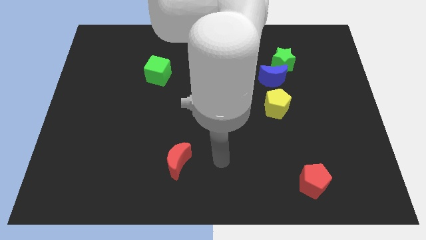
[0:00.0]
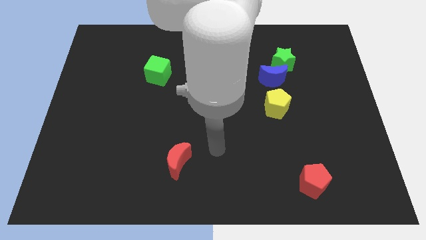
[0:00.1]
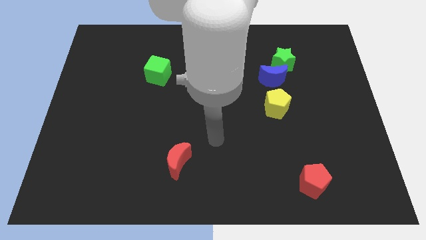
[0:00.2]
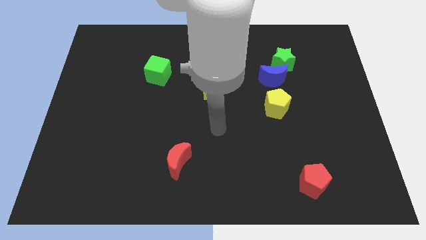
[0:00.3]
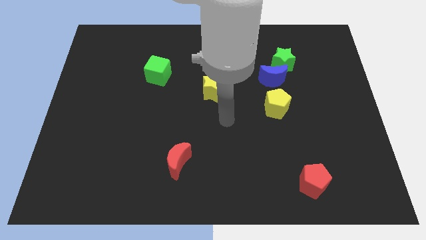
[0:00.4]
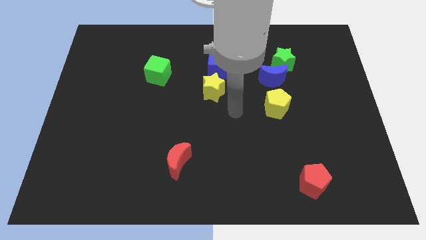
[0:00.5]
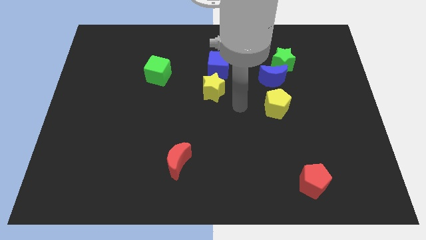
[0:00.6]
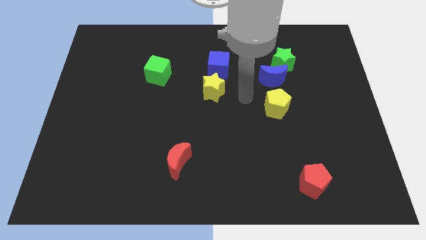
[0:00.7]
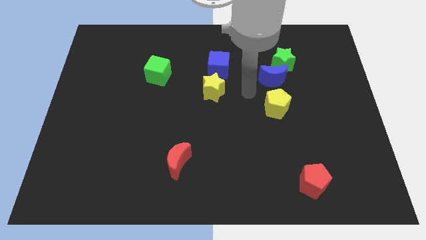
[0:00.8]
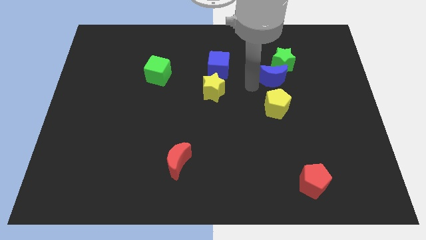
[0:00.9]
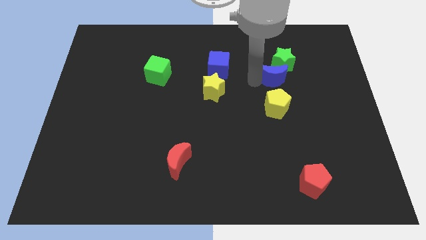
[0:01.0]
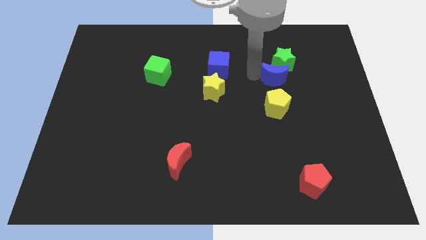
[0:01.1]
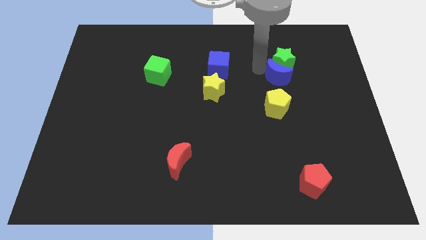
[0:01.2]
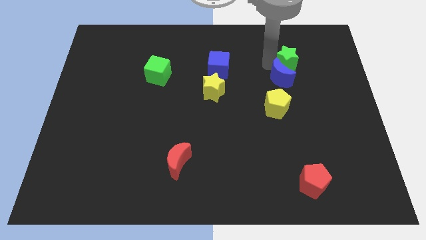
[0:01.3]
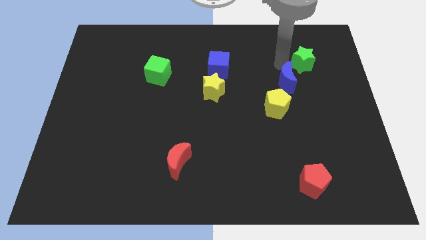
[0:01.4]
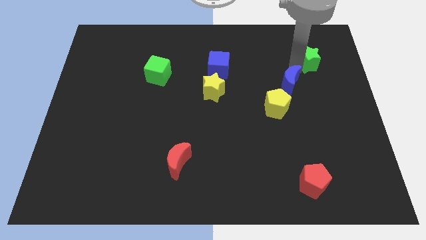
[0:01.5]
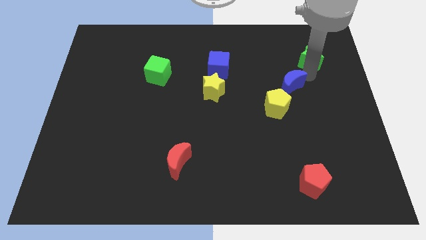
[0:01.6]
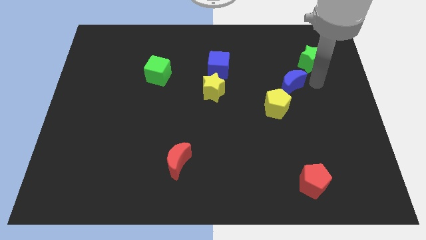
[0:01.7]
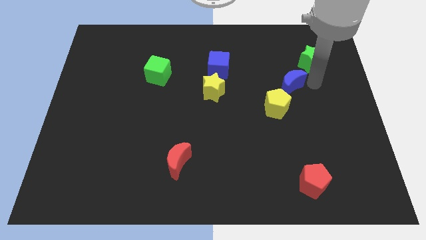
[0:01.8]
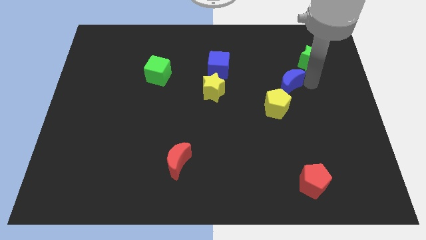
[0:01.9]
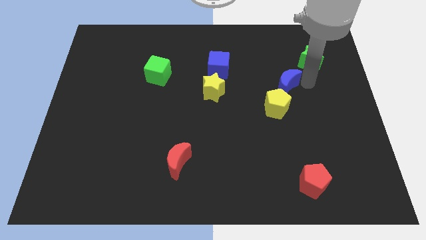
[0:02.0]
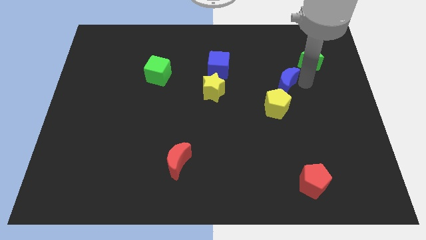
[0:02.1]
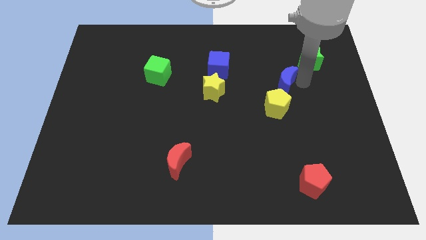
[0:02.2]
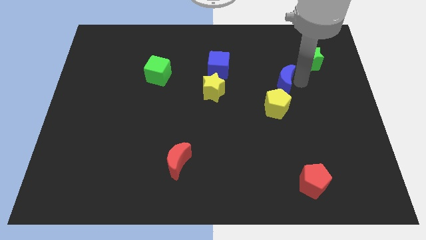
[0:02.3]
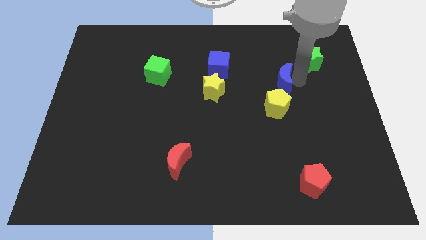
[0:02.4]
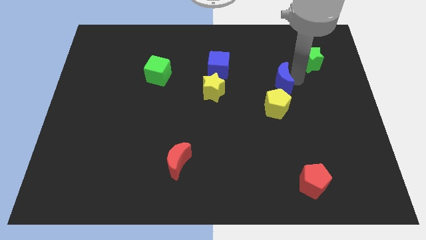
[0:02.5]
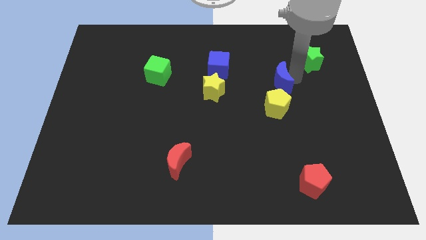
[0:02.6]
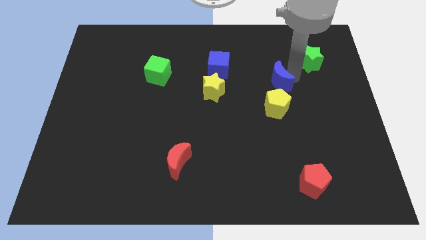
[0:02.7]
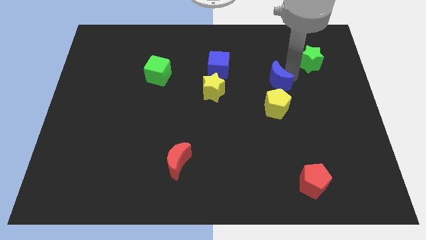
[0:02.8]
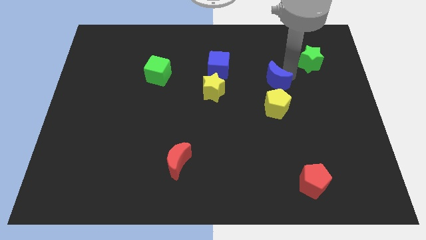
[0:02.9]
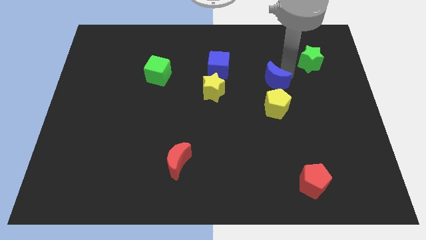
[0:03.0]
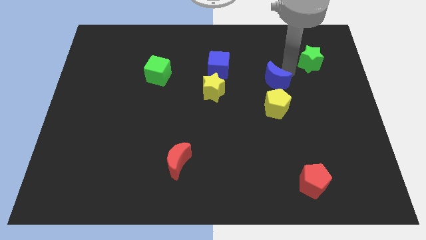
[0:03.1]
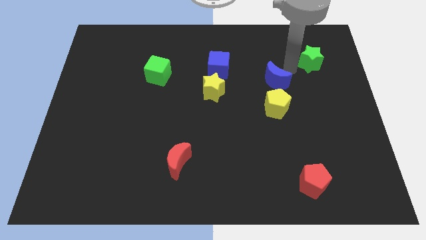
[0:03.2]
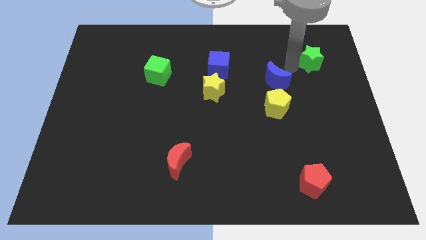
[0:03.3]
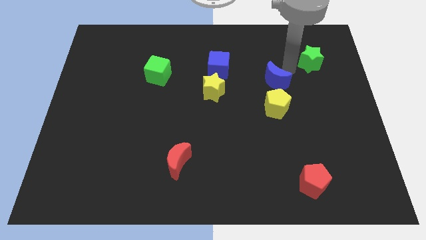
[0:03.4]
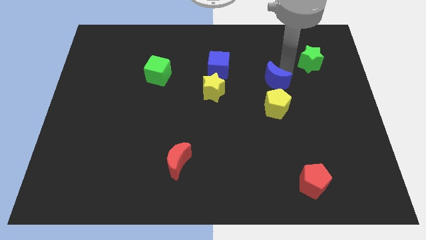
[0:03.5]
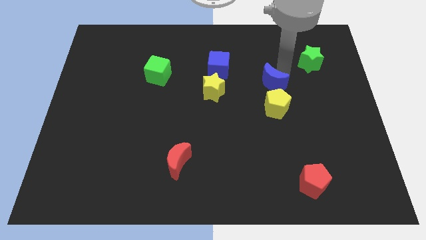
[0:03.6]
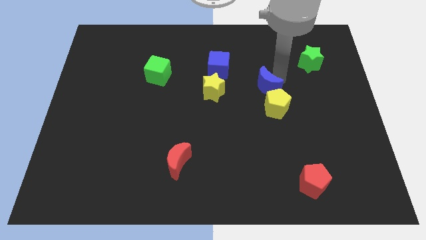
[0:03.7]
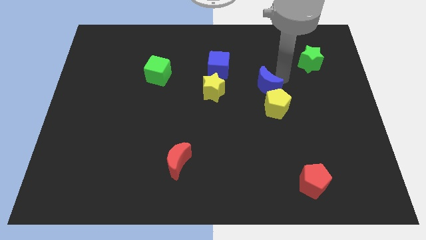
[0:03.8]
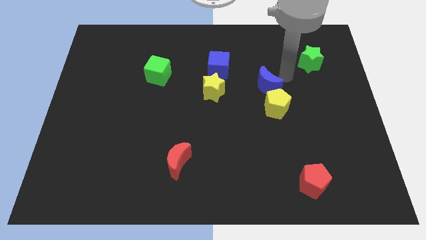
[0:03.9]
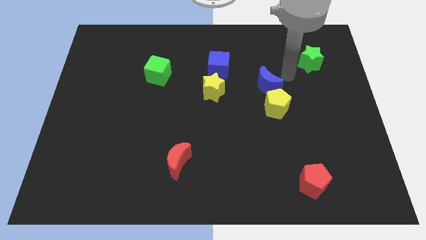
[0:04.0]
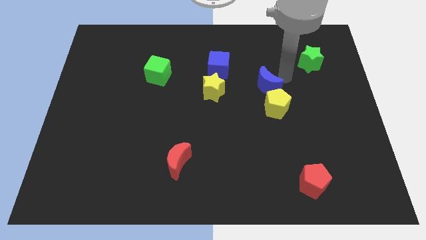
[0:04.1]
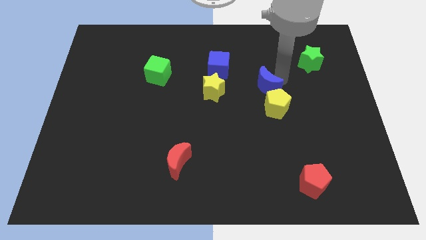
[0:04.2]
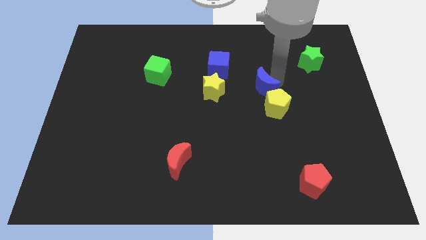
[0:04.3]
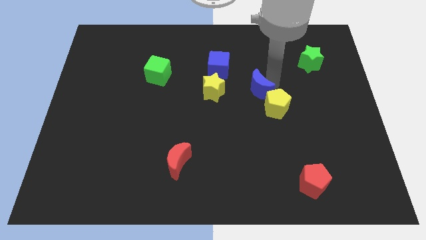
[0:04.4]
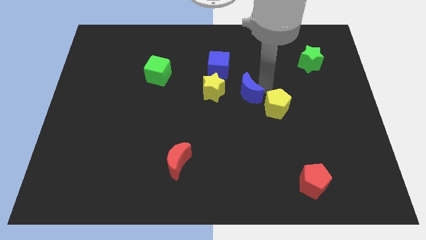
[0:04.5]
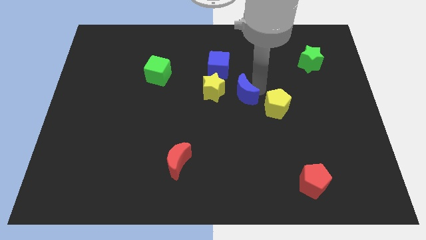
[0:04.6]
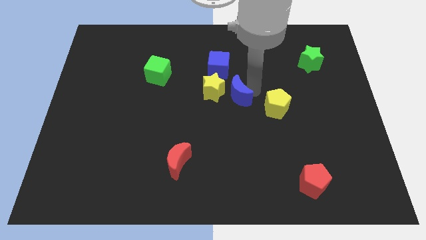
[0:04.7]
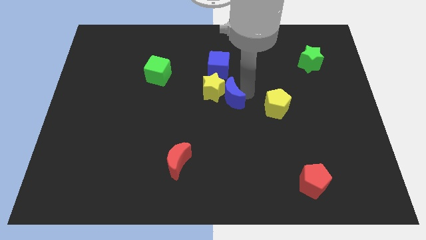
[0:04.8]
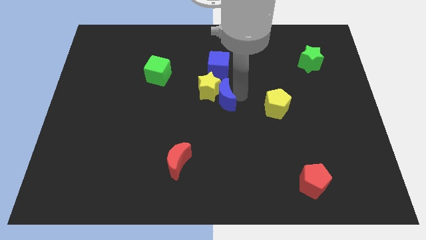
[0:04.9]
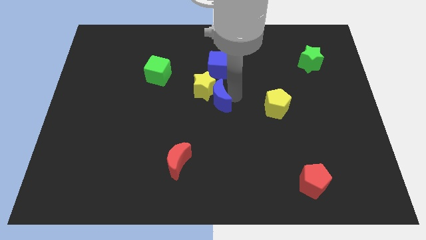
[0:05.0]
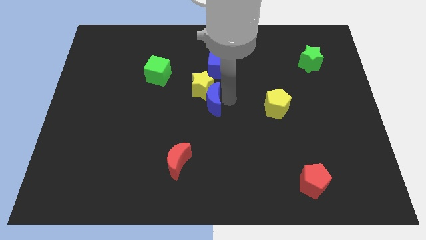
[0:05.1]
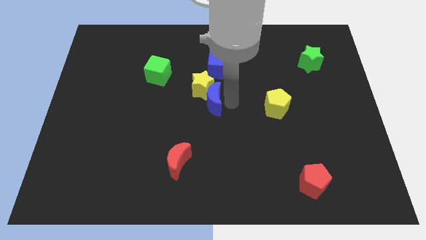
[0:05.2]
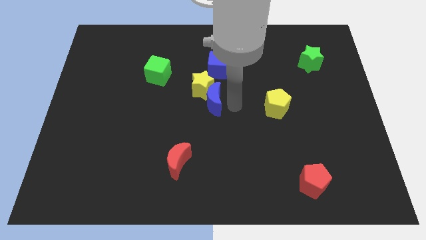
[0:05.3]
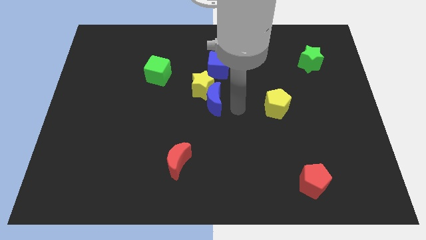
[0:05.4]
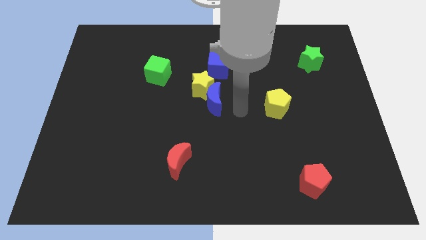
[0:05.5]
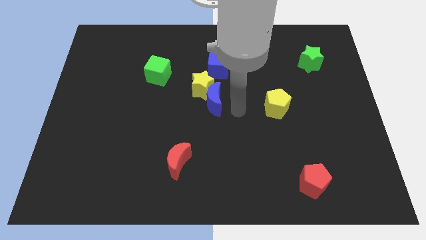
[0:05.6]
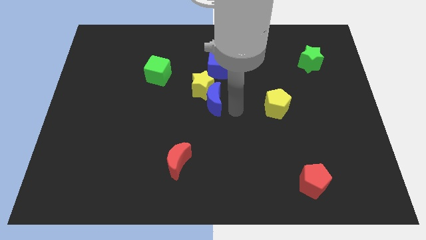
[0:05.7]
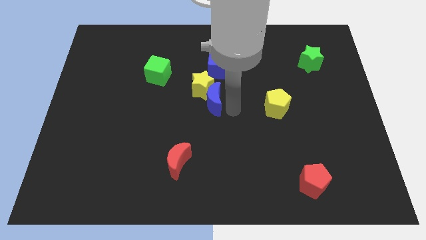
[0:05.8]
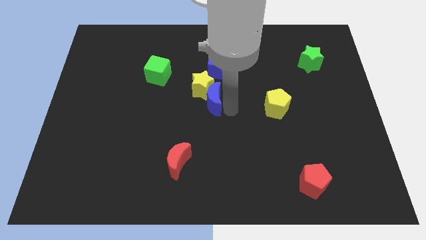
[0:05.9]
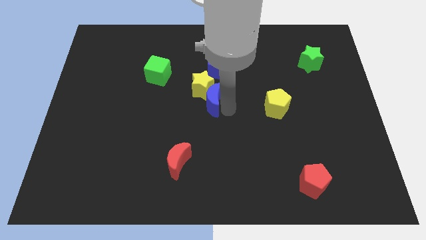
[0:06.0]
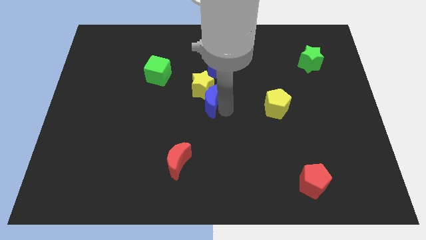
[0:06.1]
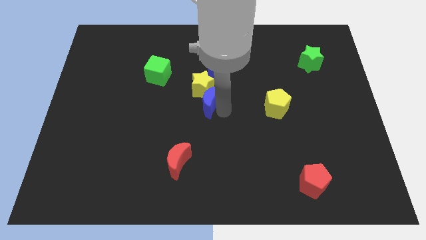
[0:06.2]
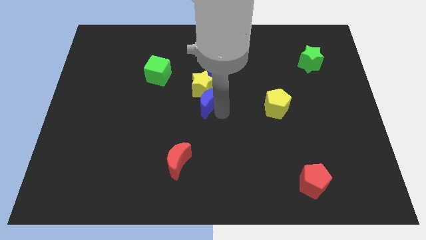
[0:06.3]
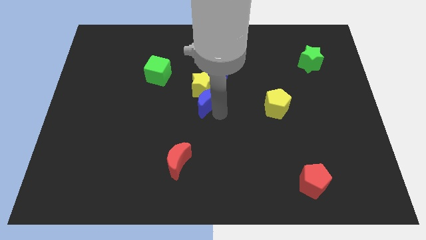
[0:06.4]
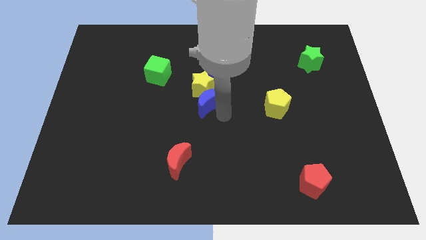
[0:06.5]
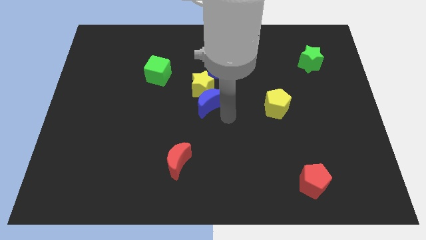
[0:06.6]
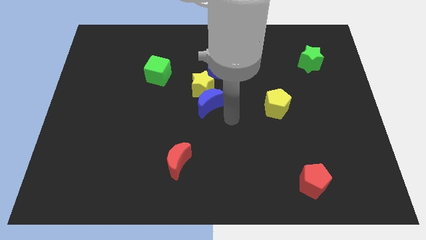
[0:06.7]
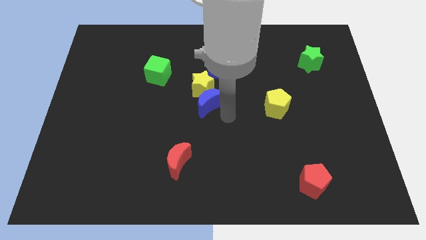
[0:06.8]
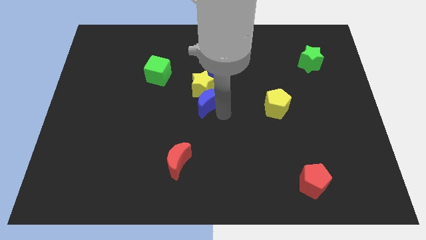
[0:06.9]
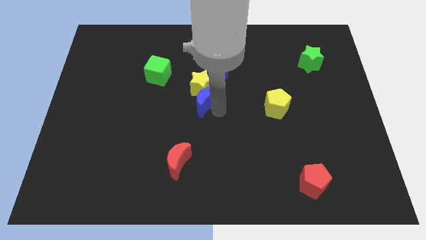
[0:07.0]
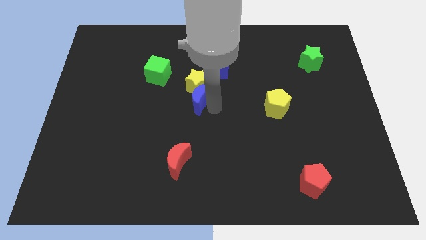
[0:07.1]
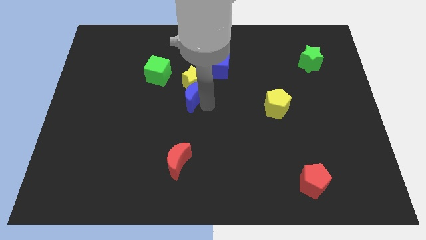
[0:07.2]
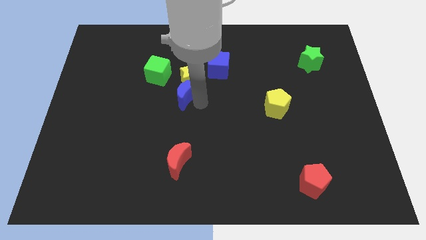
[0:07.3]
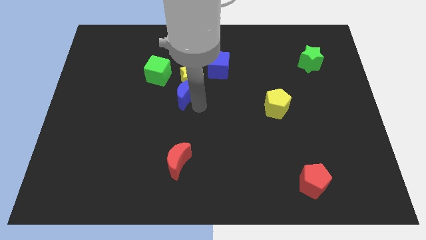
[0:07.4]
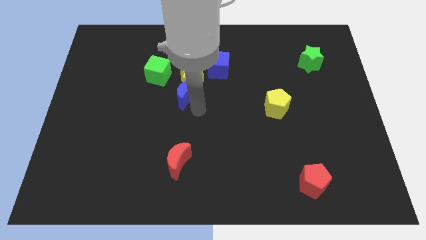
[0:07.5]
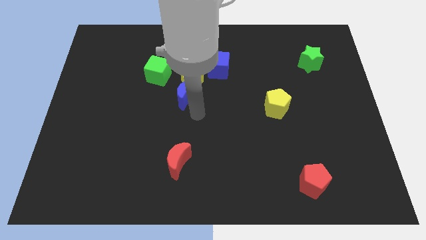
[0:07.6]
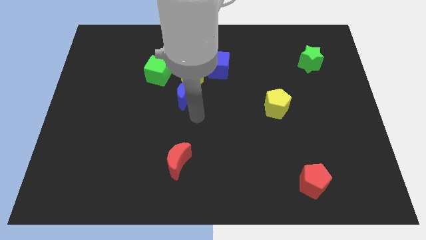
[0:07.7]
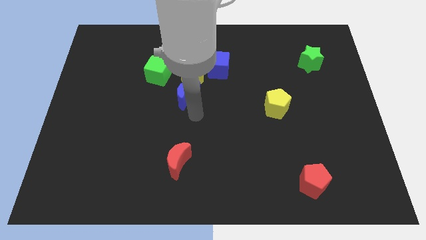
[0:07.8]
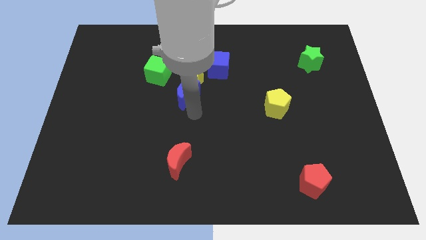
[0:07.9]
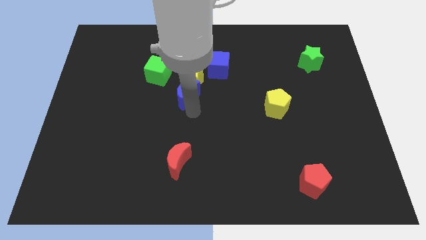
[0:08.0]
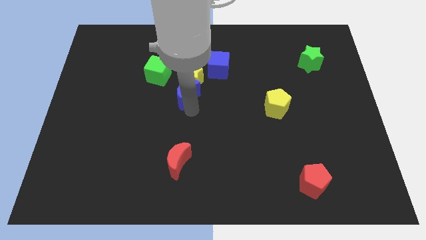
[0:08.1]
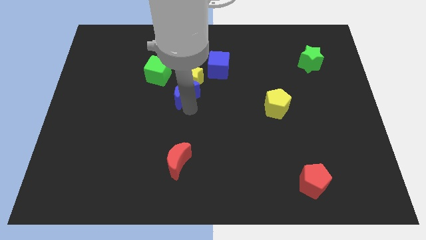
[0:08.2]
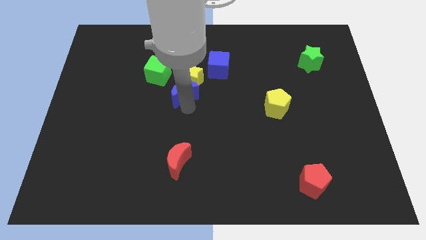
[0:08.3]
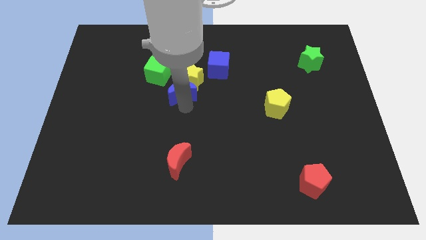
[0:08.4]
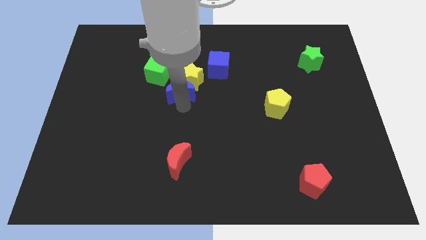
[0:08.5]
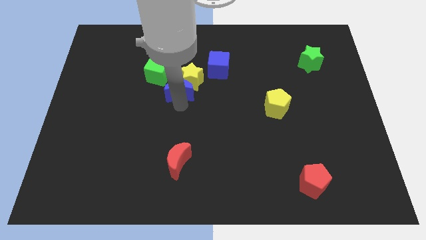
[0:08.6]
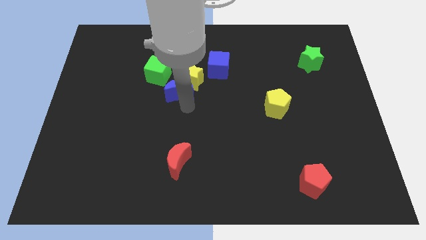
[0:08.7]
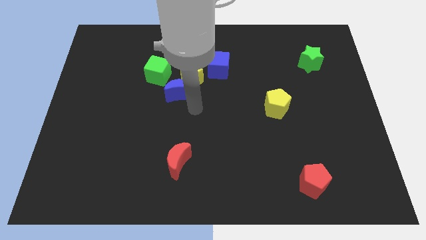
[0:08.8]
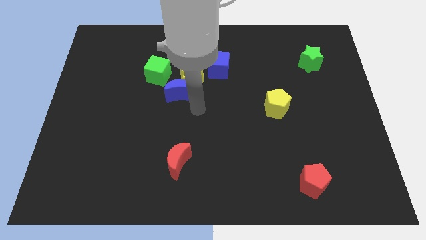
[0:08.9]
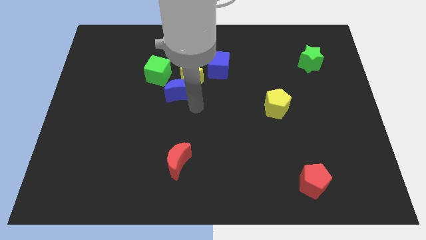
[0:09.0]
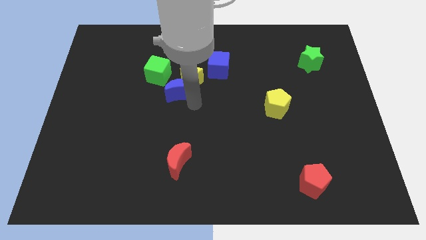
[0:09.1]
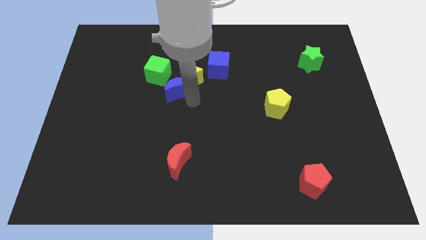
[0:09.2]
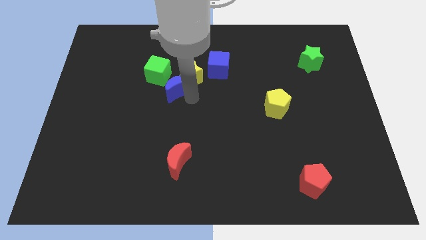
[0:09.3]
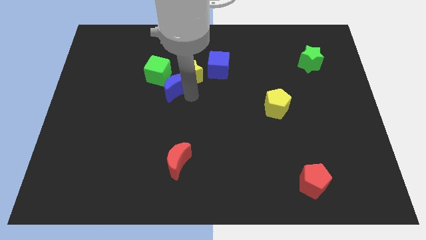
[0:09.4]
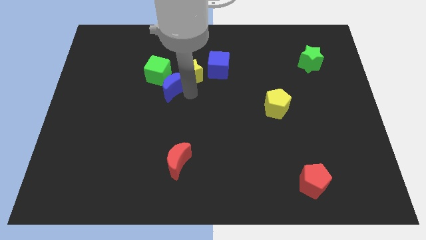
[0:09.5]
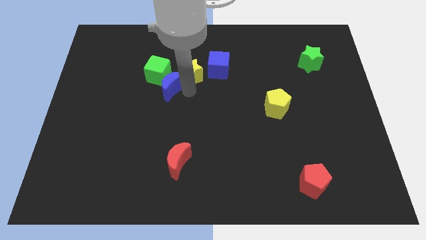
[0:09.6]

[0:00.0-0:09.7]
move the blue moon towards the green cube
